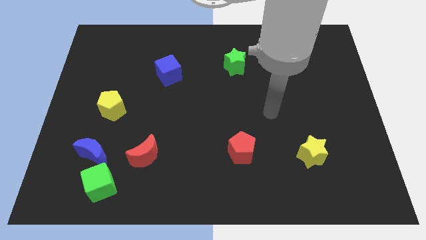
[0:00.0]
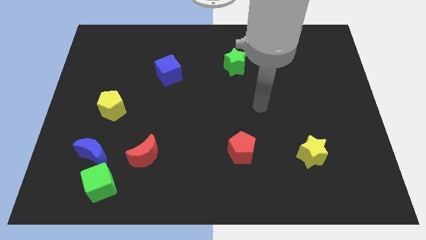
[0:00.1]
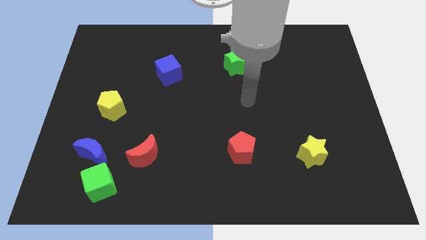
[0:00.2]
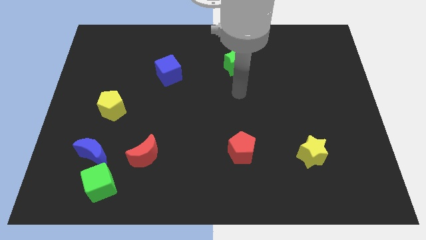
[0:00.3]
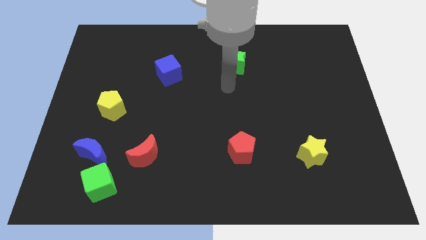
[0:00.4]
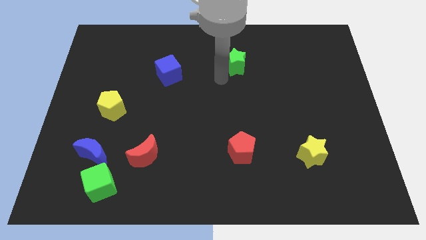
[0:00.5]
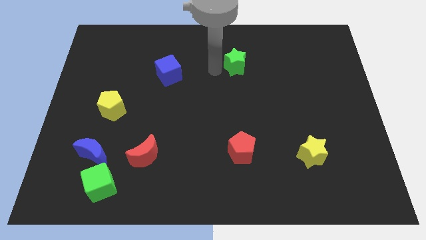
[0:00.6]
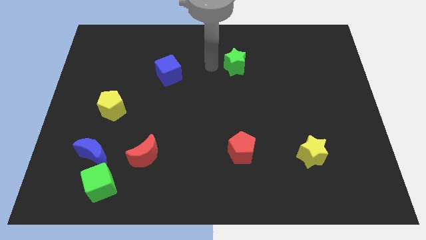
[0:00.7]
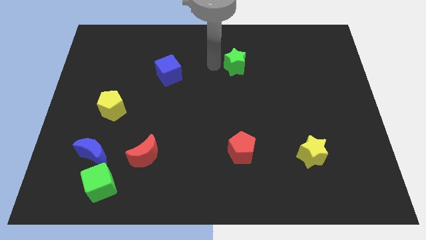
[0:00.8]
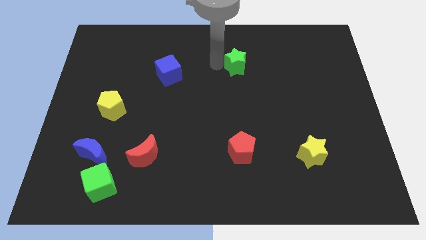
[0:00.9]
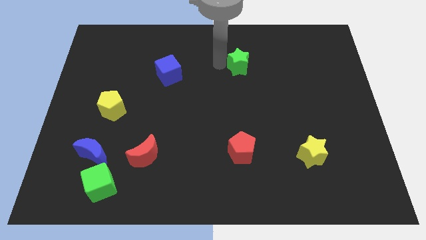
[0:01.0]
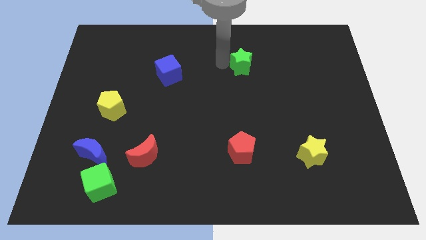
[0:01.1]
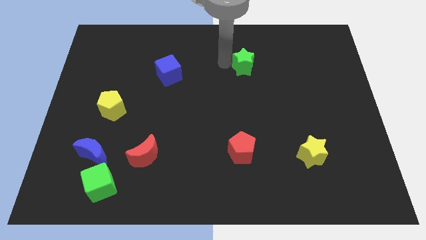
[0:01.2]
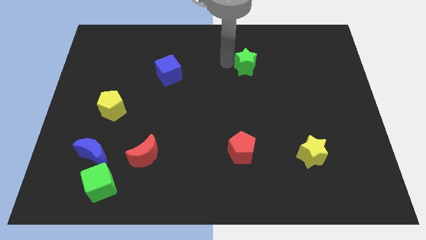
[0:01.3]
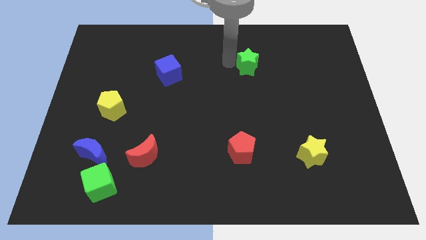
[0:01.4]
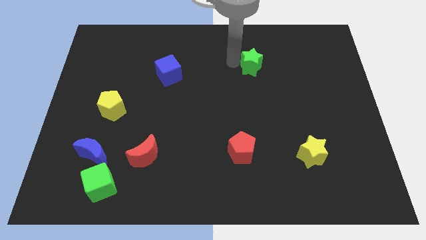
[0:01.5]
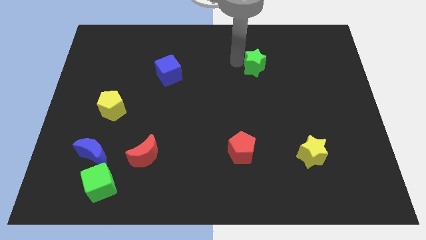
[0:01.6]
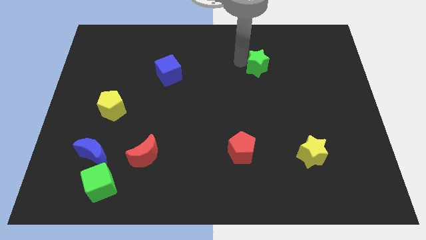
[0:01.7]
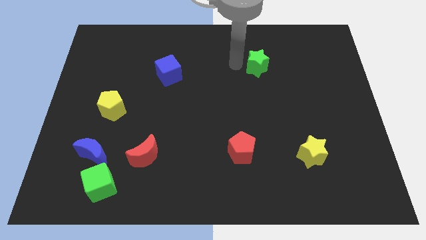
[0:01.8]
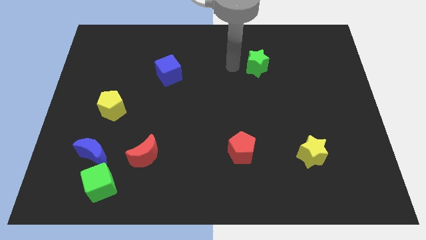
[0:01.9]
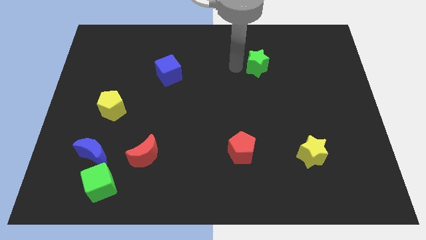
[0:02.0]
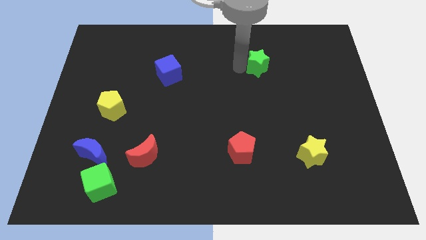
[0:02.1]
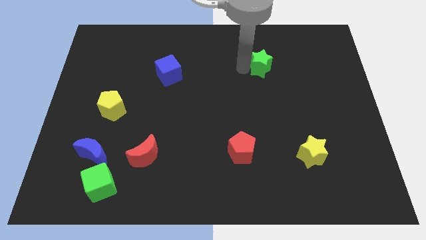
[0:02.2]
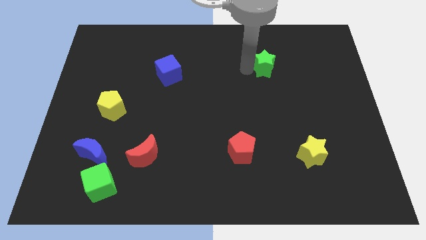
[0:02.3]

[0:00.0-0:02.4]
slightly push the green star right

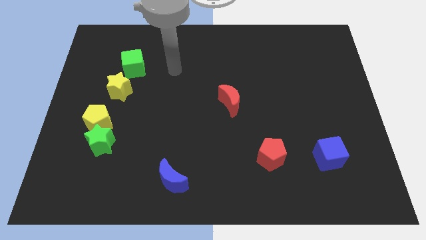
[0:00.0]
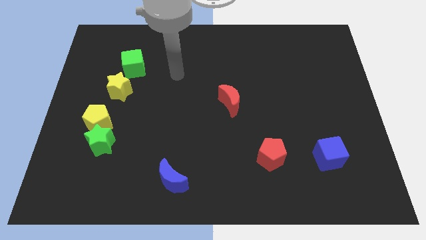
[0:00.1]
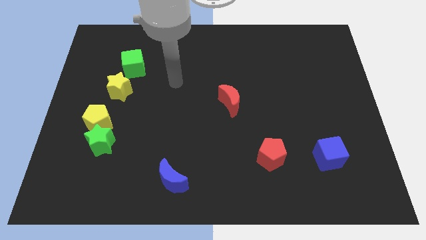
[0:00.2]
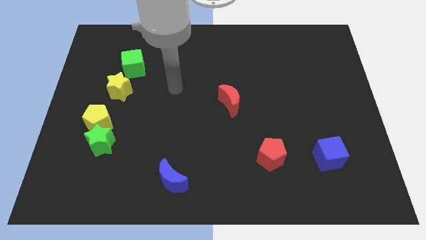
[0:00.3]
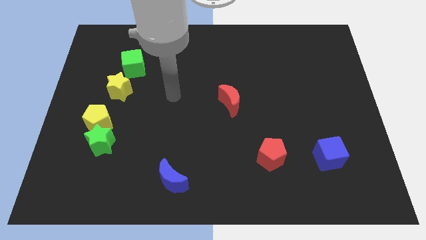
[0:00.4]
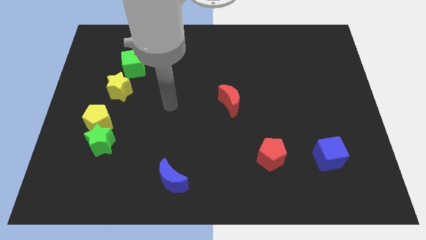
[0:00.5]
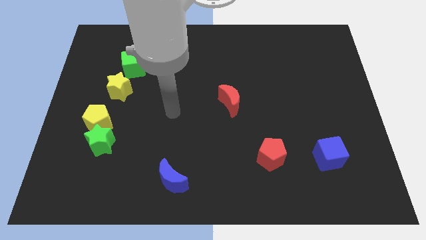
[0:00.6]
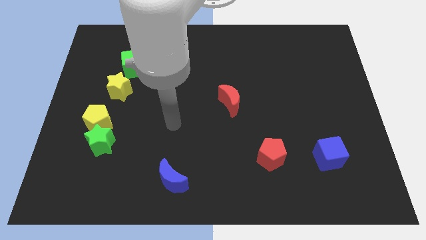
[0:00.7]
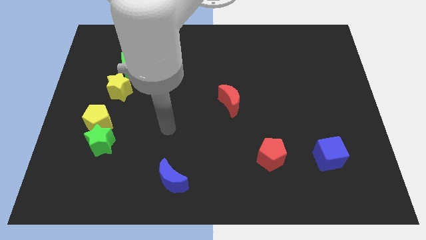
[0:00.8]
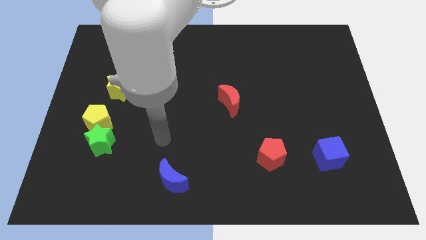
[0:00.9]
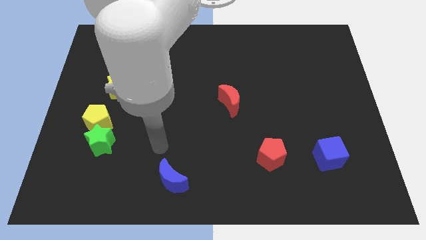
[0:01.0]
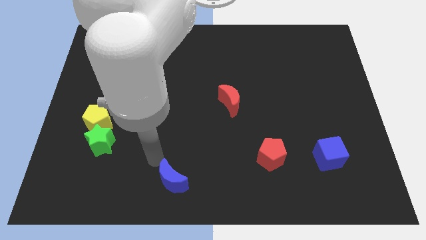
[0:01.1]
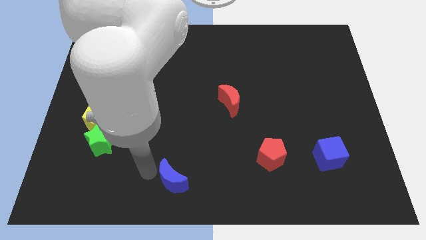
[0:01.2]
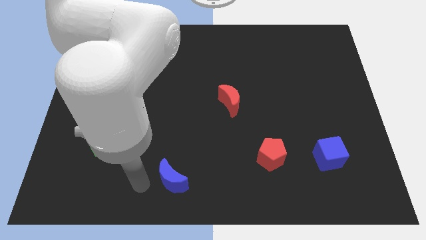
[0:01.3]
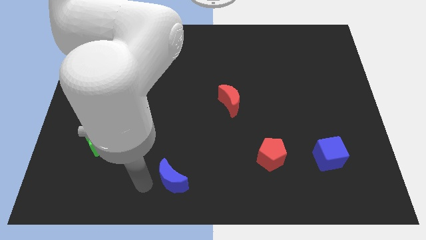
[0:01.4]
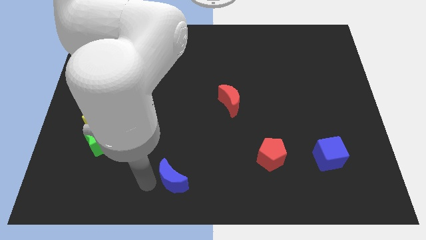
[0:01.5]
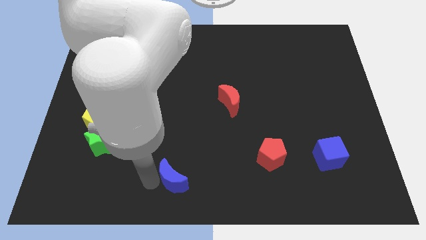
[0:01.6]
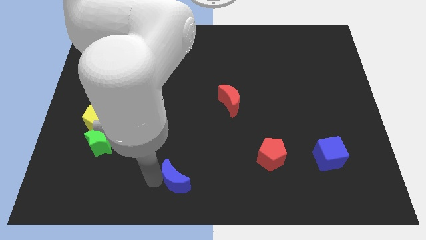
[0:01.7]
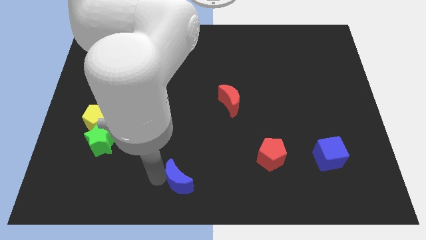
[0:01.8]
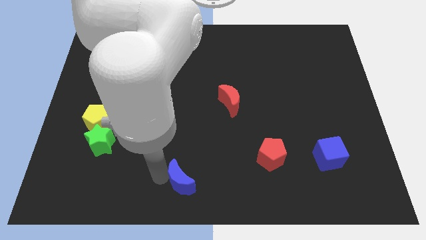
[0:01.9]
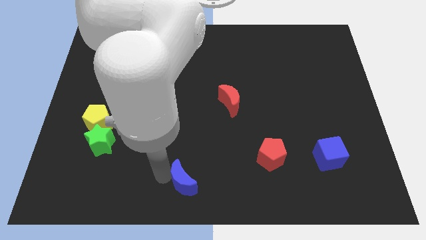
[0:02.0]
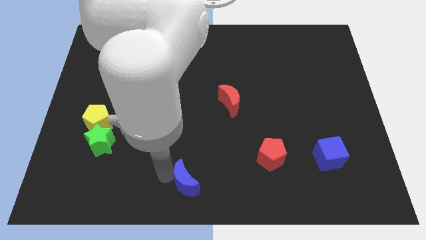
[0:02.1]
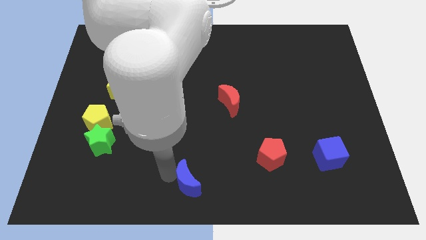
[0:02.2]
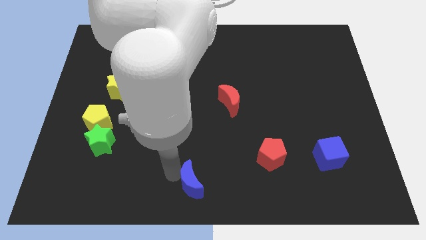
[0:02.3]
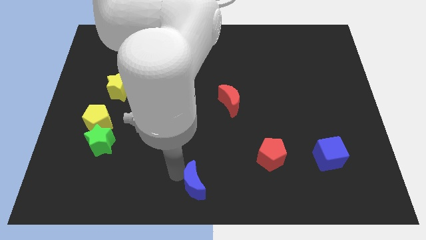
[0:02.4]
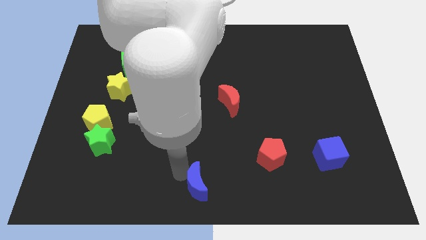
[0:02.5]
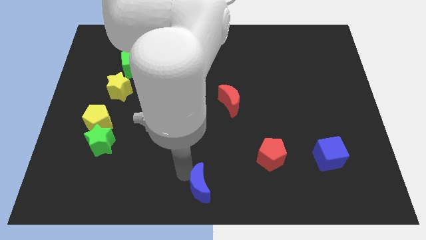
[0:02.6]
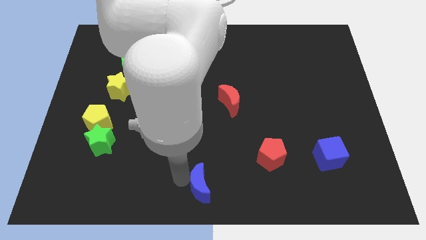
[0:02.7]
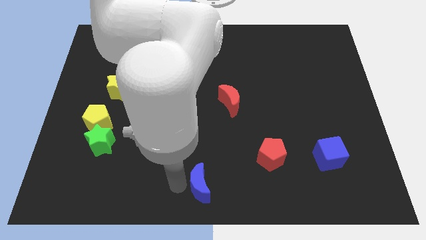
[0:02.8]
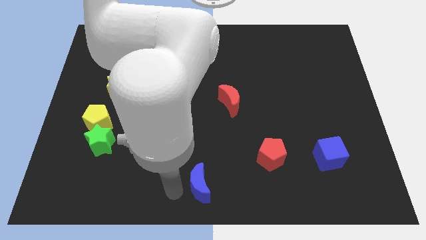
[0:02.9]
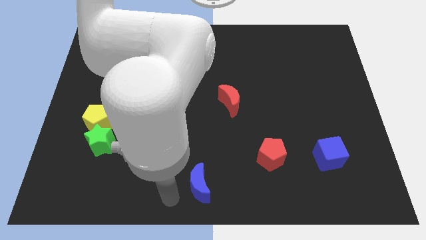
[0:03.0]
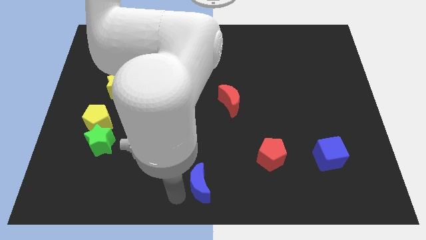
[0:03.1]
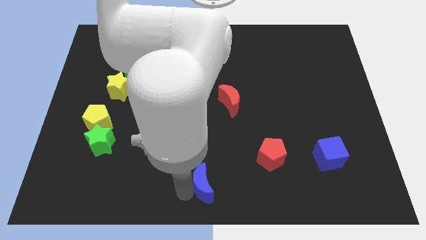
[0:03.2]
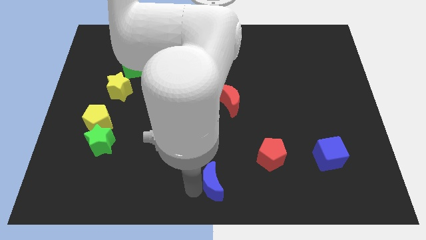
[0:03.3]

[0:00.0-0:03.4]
move the blue moon to the right a bit

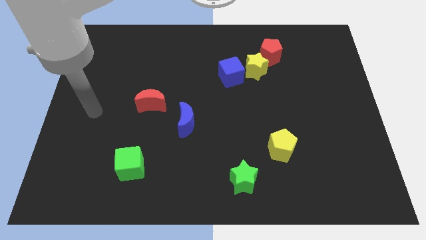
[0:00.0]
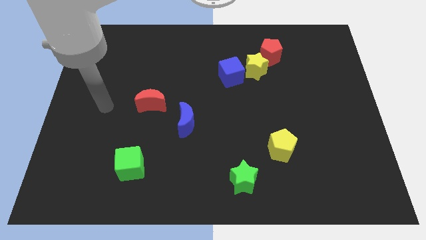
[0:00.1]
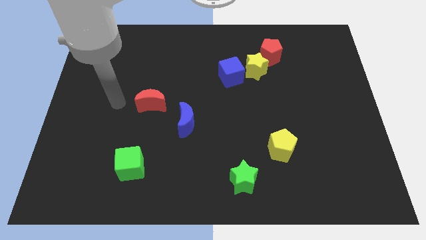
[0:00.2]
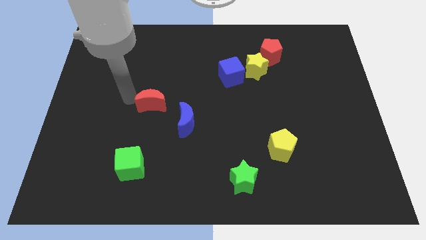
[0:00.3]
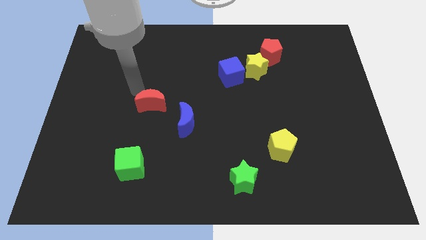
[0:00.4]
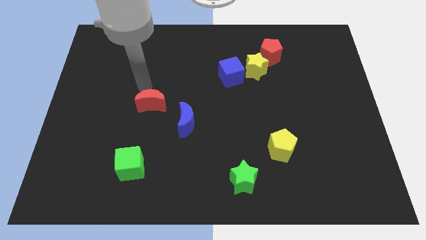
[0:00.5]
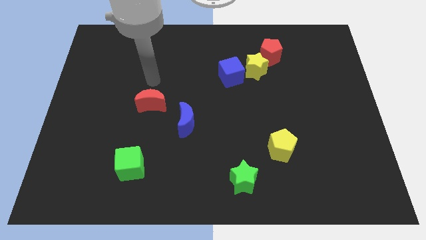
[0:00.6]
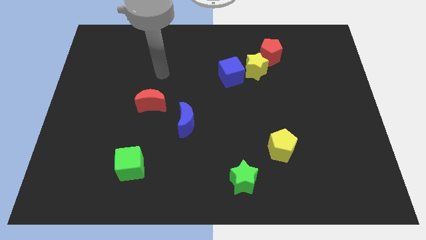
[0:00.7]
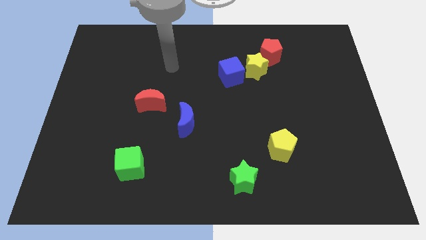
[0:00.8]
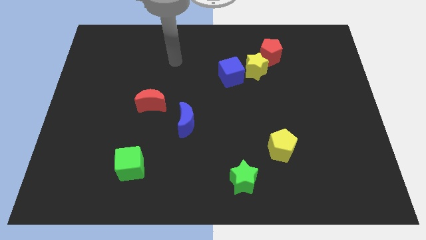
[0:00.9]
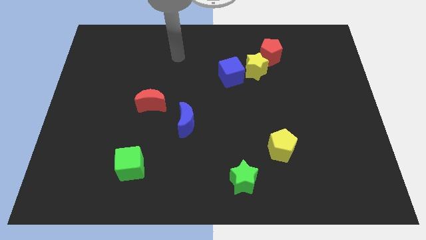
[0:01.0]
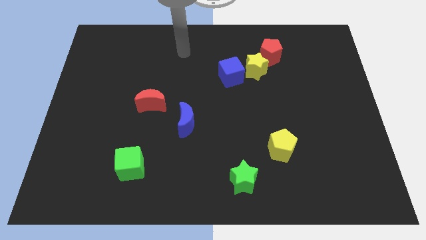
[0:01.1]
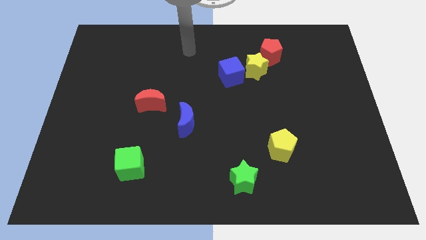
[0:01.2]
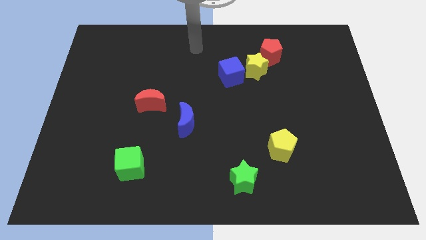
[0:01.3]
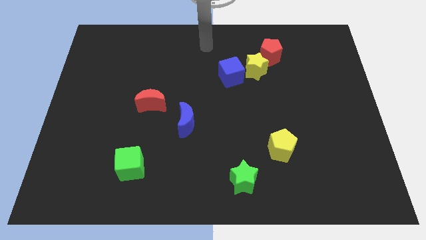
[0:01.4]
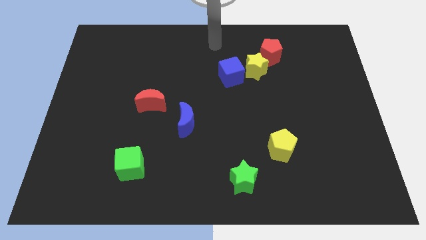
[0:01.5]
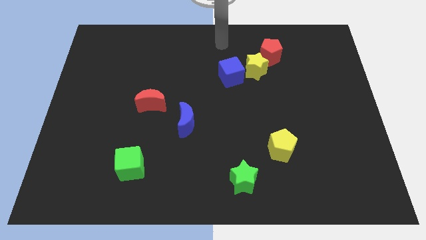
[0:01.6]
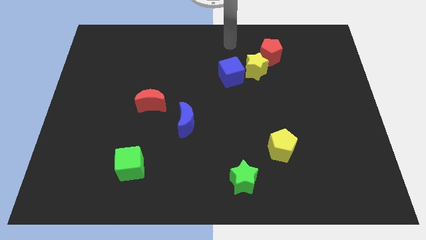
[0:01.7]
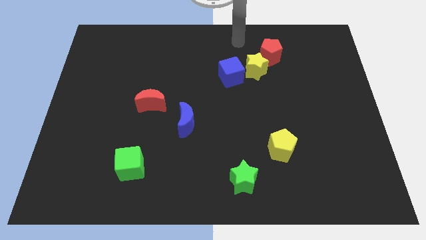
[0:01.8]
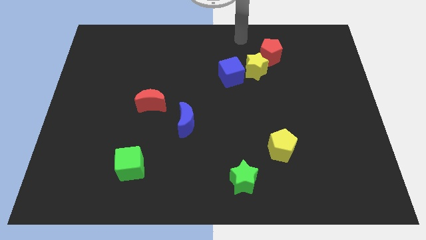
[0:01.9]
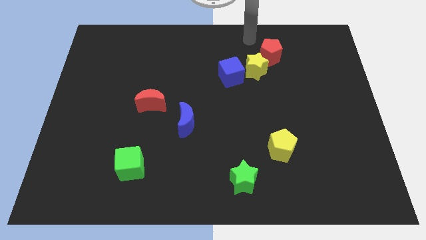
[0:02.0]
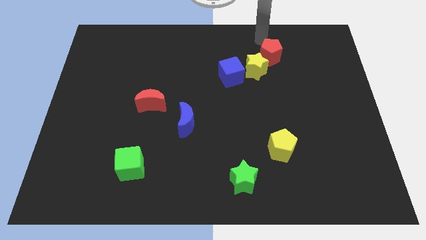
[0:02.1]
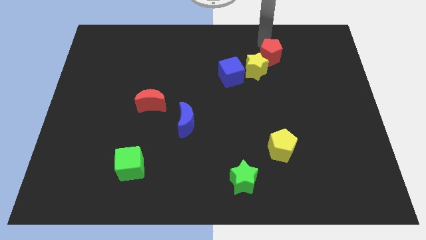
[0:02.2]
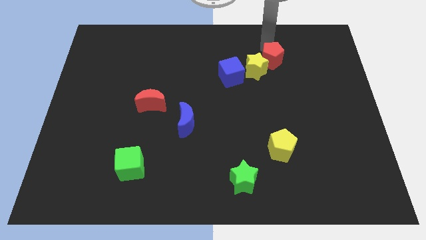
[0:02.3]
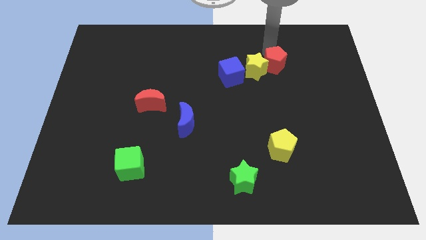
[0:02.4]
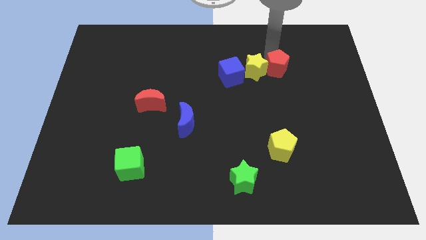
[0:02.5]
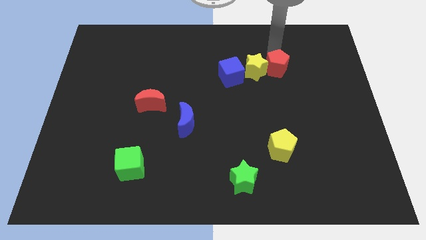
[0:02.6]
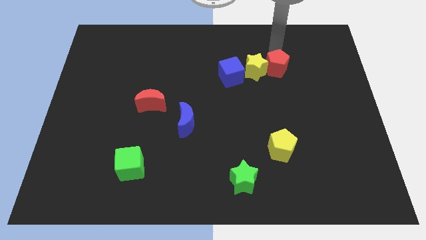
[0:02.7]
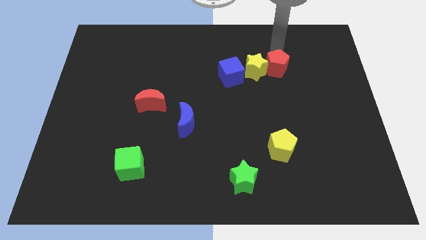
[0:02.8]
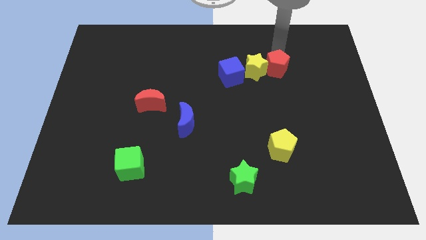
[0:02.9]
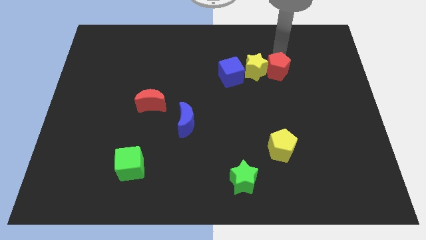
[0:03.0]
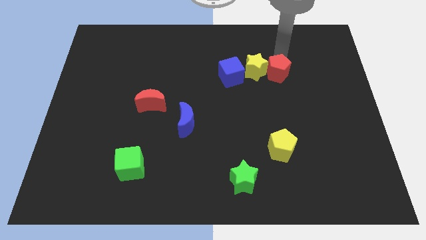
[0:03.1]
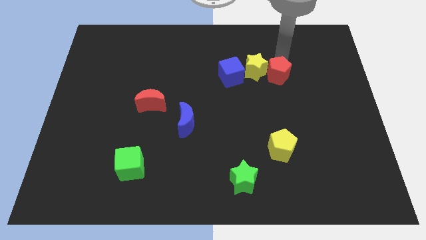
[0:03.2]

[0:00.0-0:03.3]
slide the red pentagon a little bit downwards
